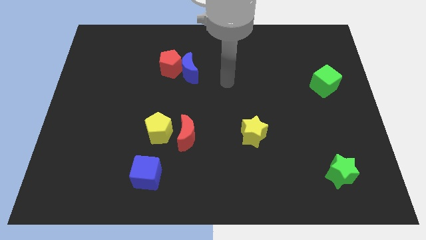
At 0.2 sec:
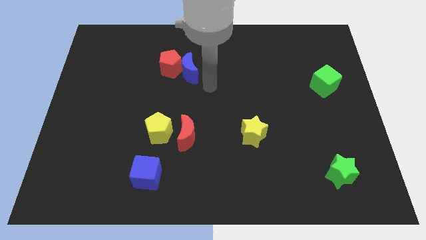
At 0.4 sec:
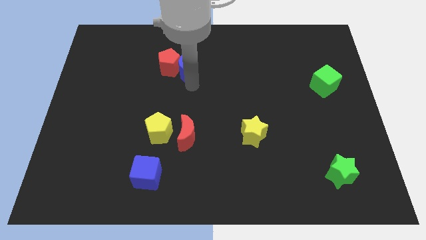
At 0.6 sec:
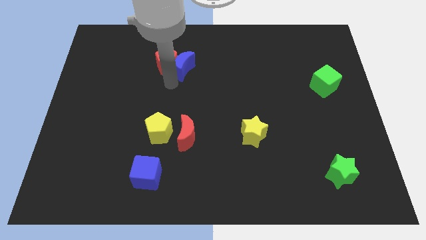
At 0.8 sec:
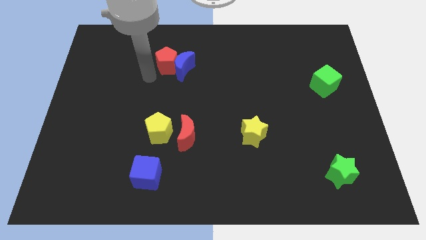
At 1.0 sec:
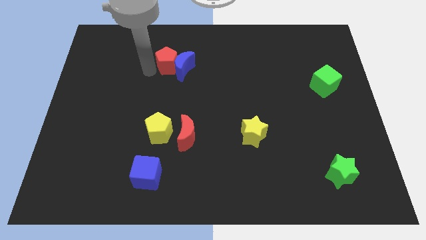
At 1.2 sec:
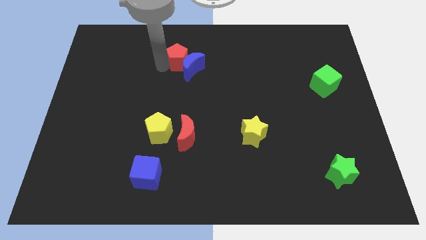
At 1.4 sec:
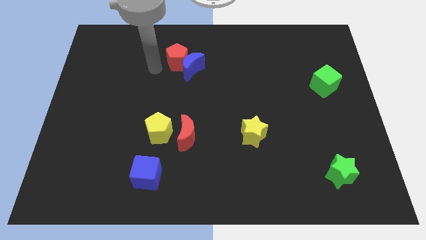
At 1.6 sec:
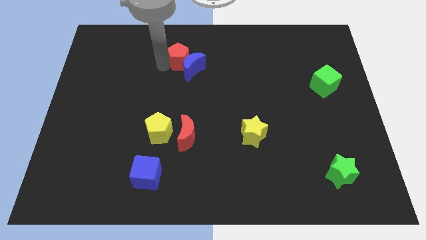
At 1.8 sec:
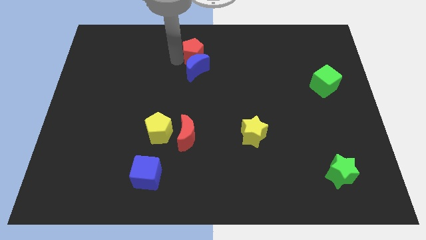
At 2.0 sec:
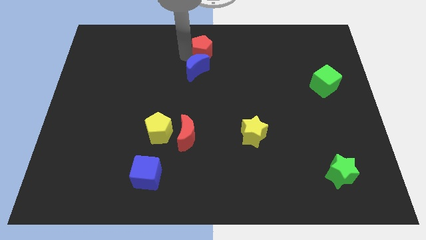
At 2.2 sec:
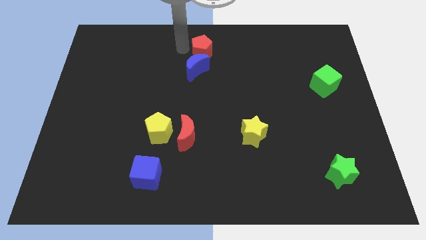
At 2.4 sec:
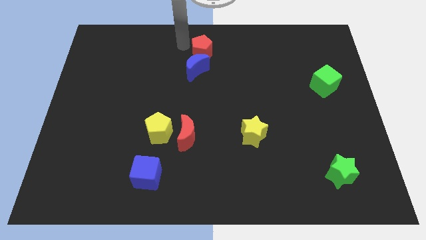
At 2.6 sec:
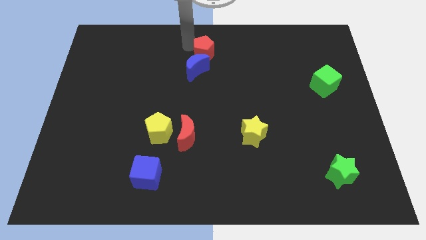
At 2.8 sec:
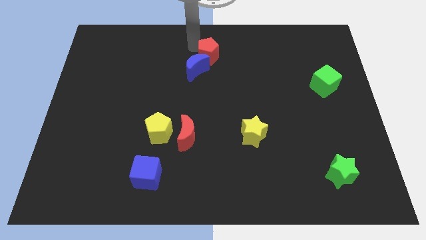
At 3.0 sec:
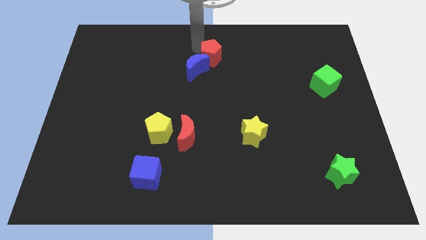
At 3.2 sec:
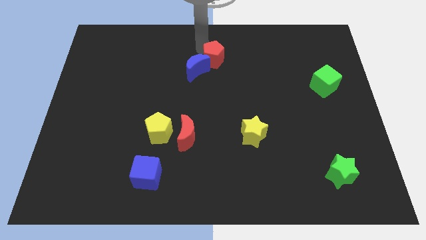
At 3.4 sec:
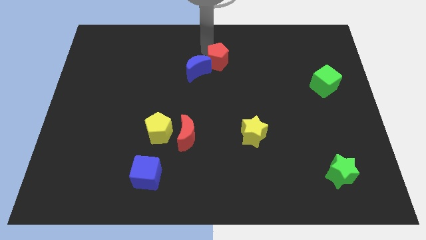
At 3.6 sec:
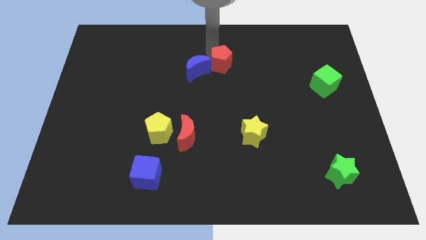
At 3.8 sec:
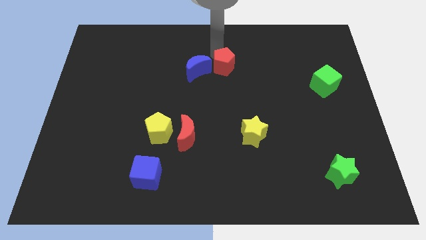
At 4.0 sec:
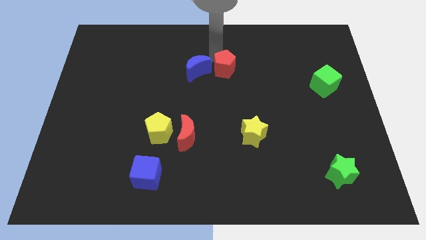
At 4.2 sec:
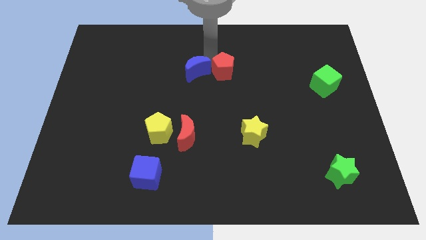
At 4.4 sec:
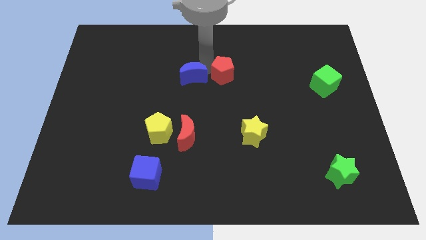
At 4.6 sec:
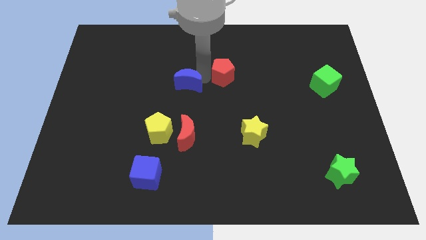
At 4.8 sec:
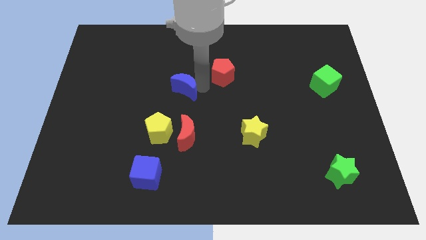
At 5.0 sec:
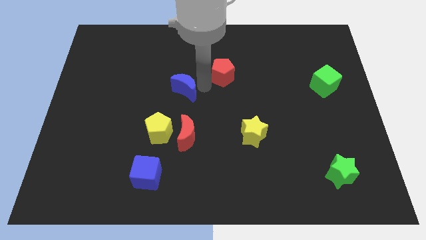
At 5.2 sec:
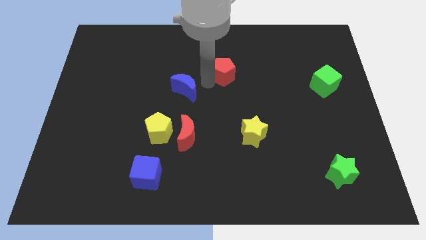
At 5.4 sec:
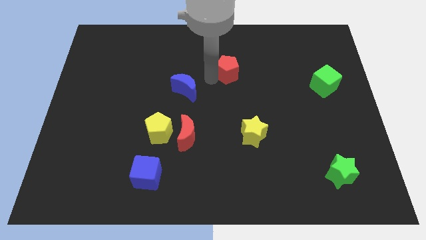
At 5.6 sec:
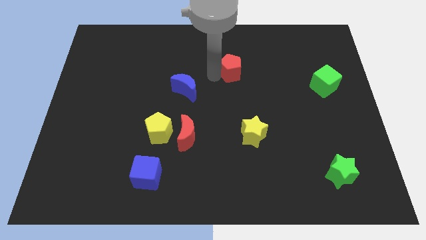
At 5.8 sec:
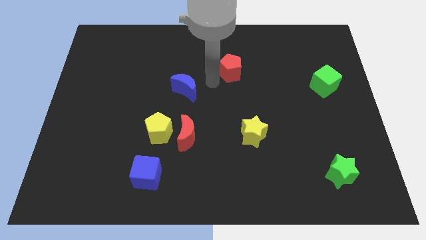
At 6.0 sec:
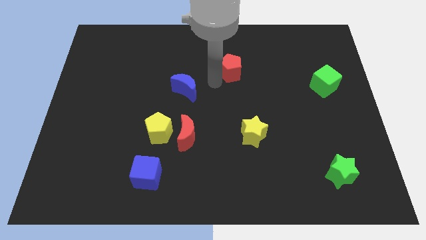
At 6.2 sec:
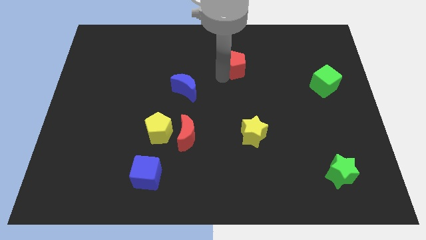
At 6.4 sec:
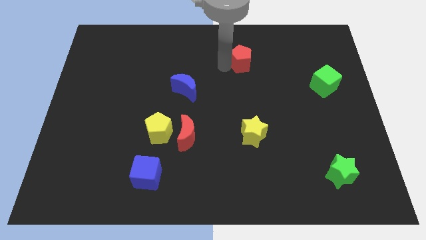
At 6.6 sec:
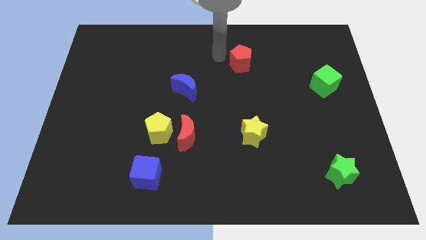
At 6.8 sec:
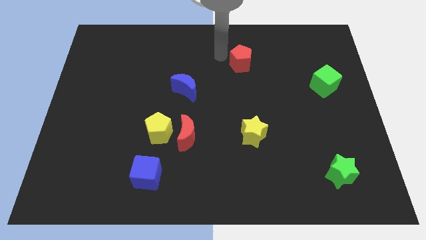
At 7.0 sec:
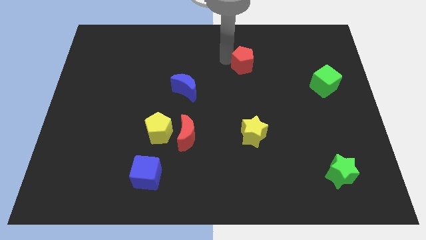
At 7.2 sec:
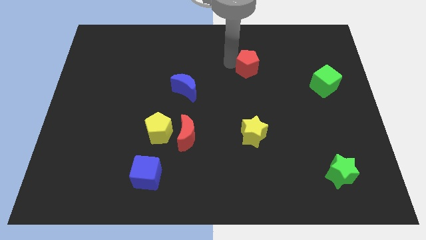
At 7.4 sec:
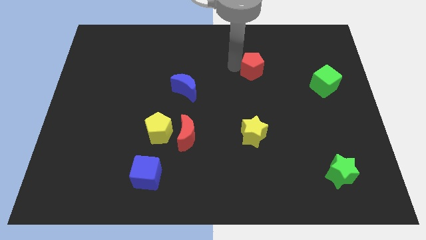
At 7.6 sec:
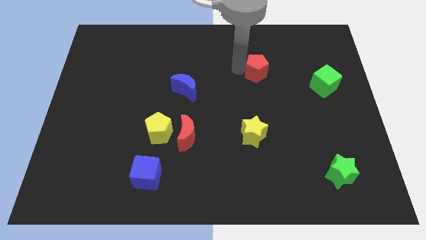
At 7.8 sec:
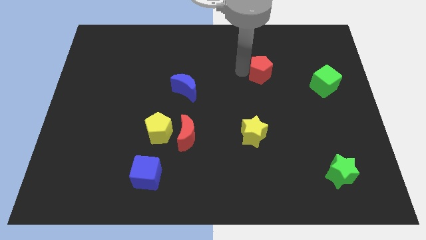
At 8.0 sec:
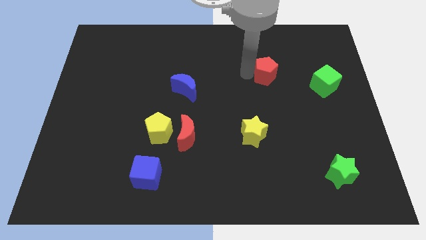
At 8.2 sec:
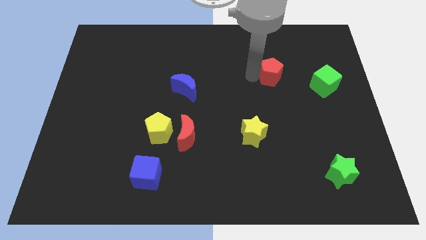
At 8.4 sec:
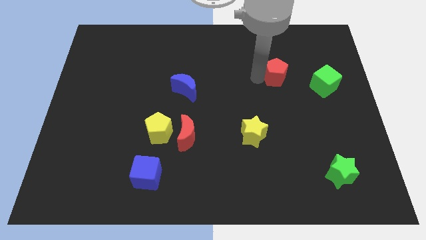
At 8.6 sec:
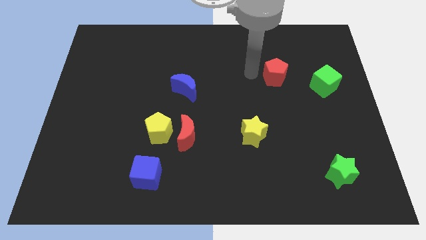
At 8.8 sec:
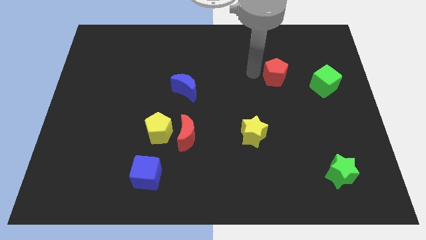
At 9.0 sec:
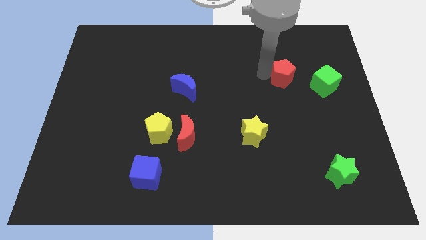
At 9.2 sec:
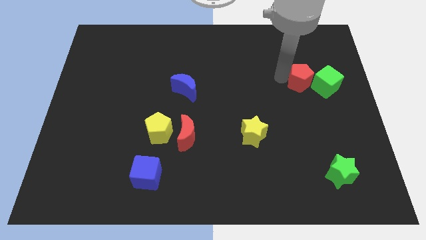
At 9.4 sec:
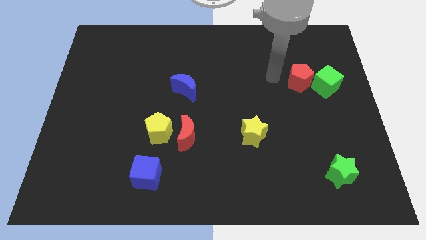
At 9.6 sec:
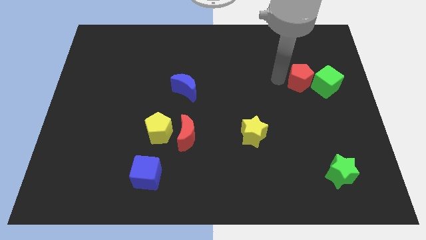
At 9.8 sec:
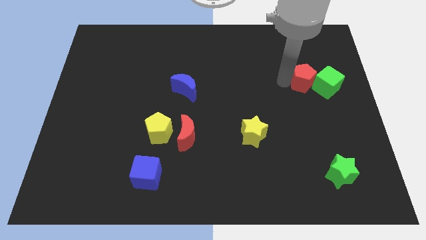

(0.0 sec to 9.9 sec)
move the red pentagon next to the green cube

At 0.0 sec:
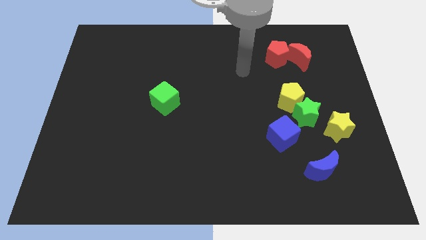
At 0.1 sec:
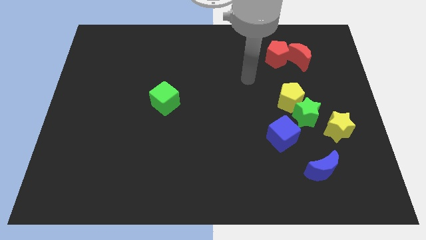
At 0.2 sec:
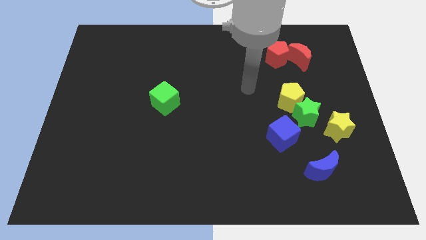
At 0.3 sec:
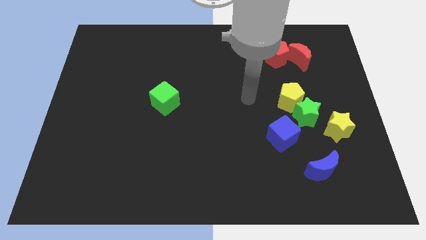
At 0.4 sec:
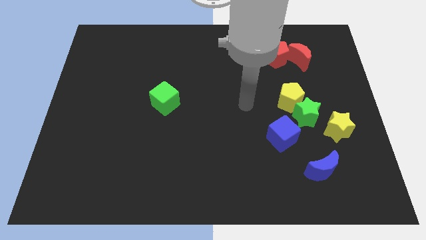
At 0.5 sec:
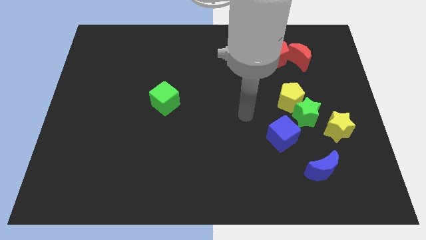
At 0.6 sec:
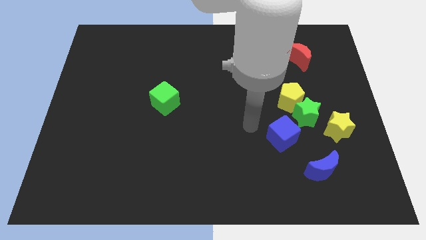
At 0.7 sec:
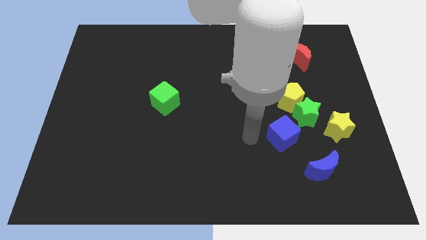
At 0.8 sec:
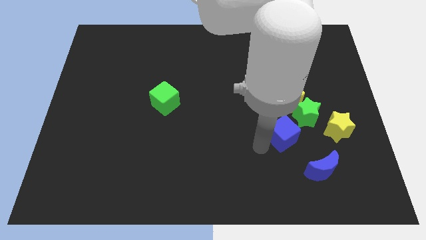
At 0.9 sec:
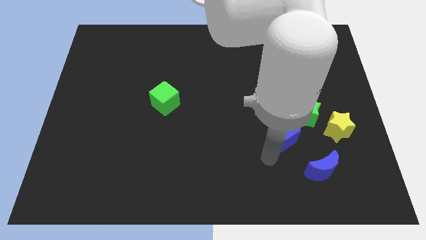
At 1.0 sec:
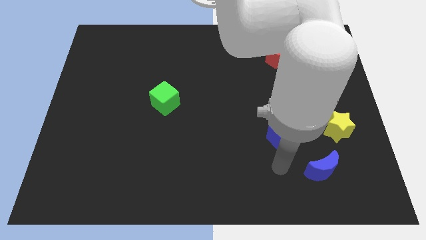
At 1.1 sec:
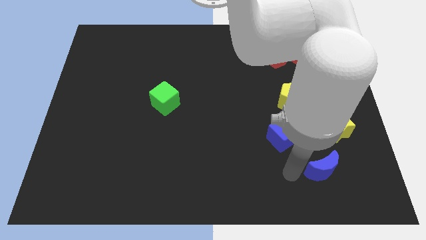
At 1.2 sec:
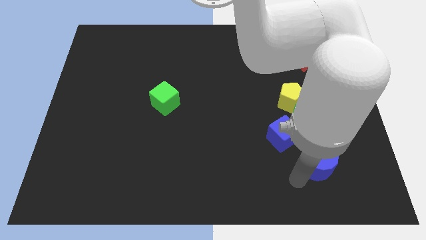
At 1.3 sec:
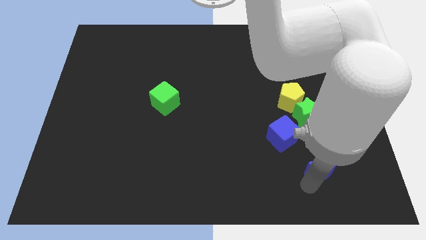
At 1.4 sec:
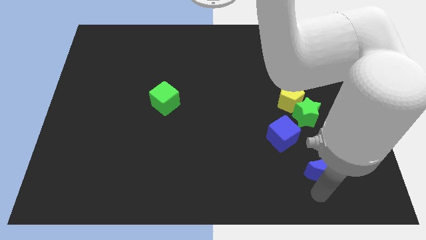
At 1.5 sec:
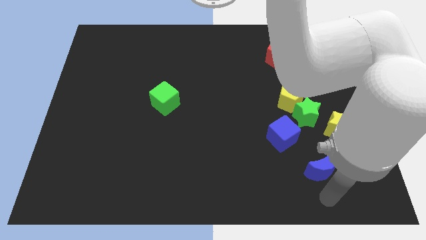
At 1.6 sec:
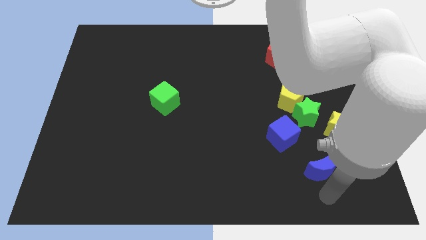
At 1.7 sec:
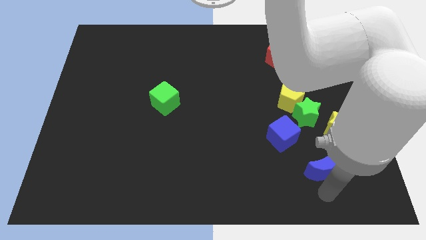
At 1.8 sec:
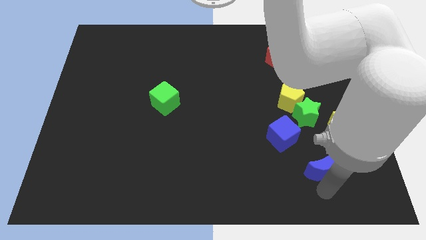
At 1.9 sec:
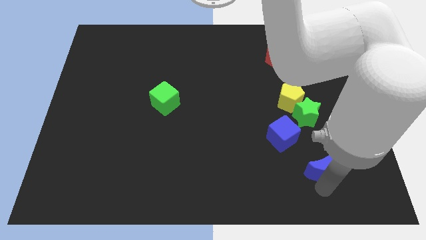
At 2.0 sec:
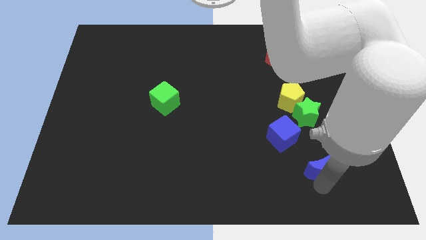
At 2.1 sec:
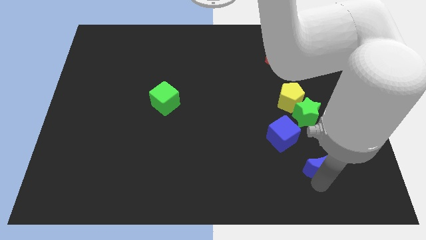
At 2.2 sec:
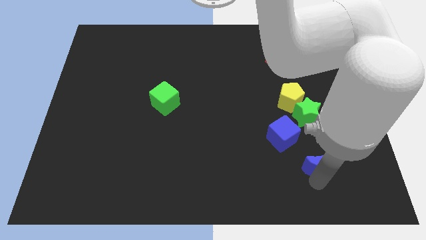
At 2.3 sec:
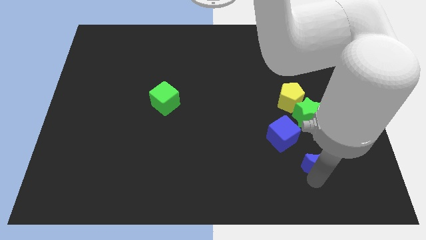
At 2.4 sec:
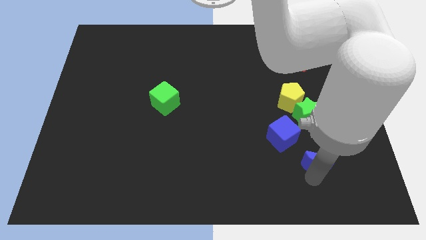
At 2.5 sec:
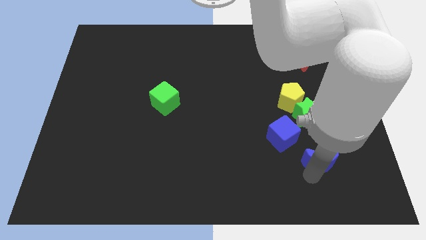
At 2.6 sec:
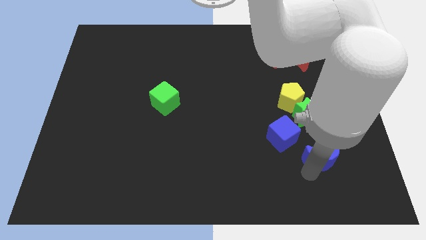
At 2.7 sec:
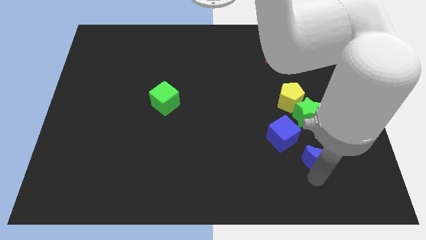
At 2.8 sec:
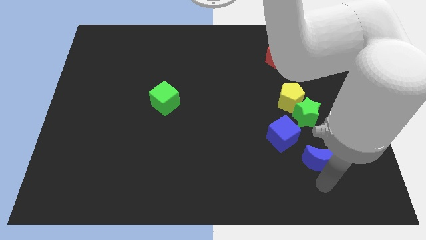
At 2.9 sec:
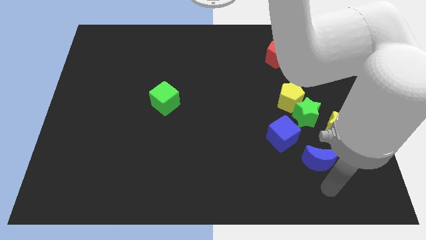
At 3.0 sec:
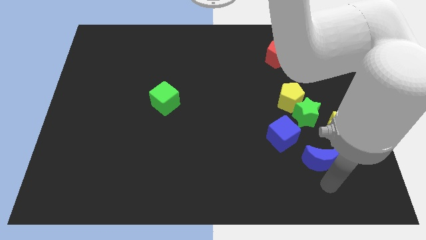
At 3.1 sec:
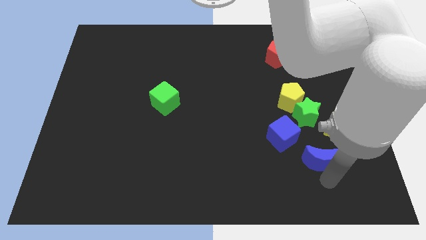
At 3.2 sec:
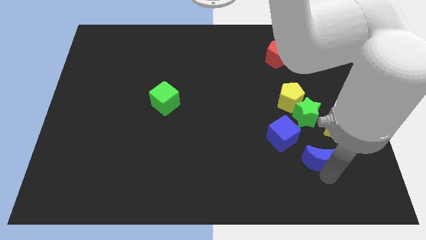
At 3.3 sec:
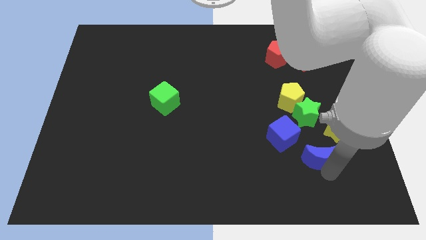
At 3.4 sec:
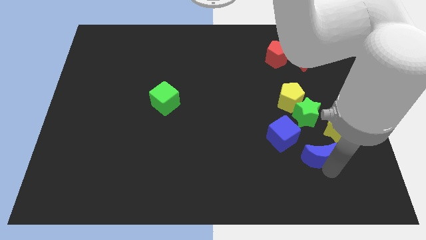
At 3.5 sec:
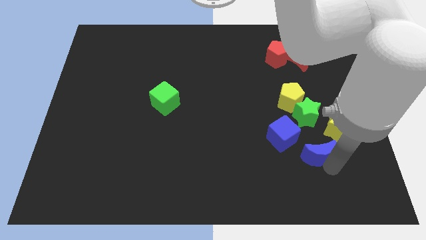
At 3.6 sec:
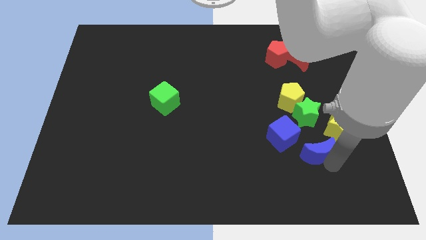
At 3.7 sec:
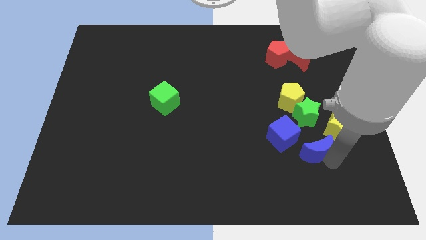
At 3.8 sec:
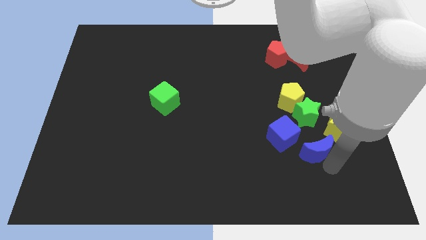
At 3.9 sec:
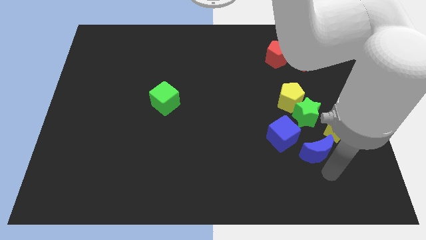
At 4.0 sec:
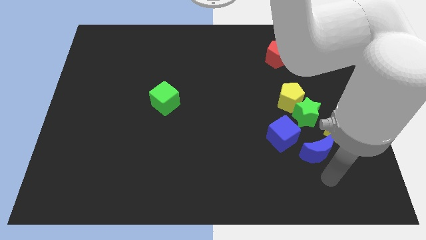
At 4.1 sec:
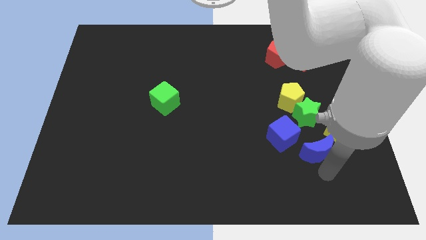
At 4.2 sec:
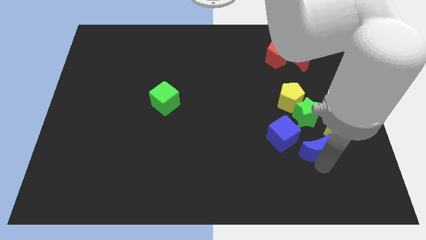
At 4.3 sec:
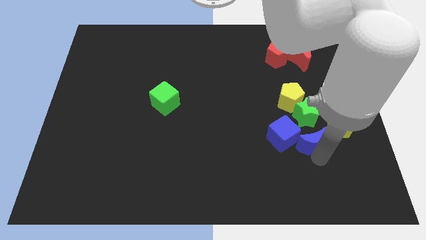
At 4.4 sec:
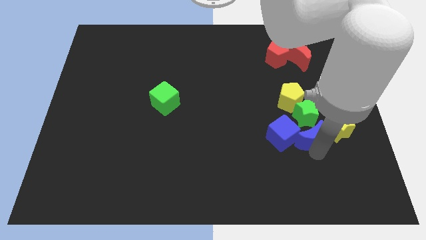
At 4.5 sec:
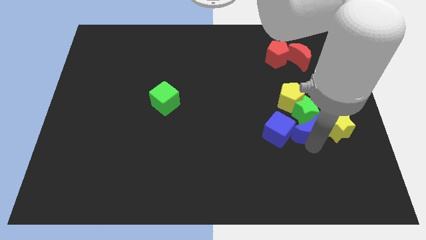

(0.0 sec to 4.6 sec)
move the blue moon close to the green star
